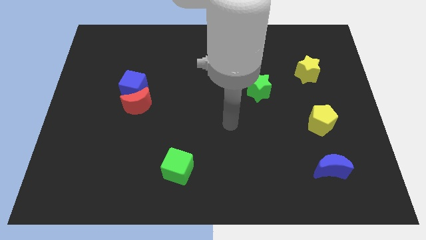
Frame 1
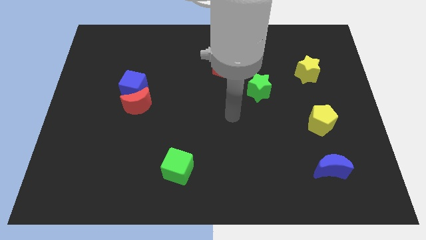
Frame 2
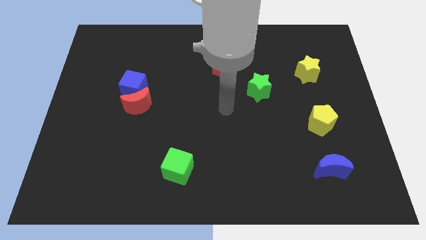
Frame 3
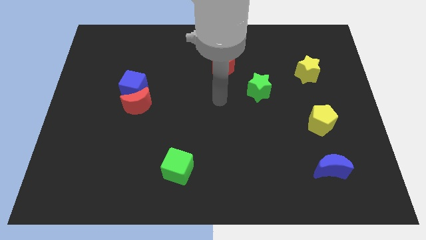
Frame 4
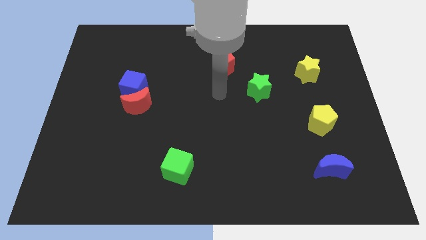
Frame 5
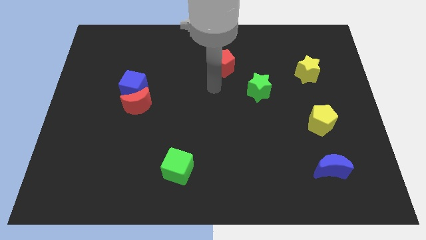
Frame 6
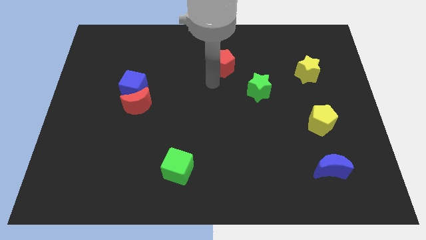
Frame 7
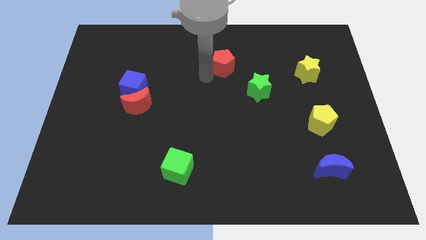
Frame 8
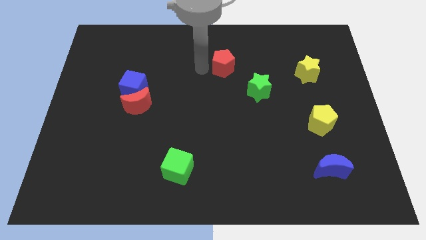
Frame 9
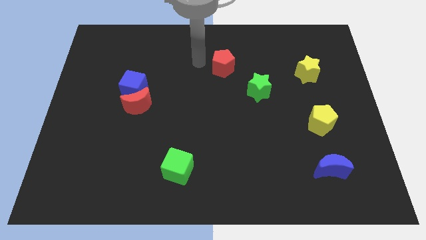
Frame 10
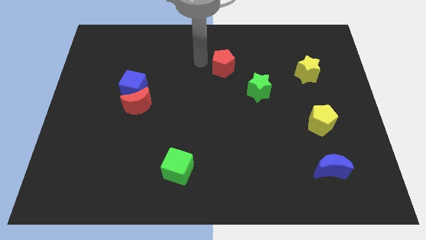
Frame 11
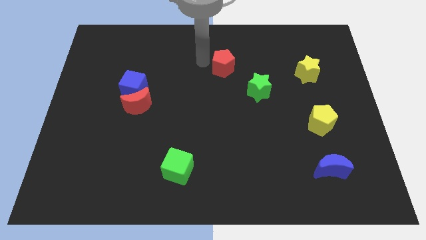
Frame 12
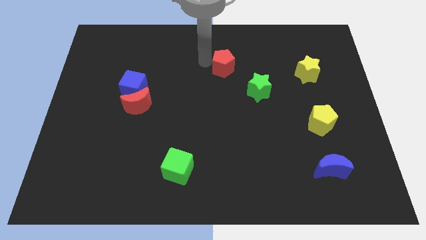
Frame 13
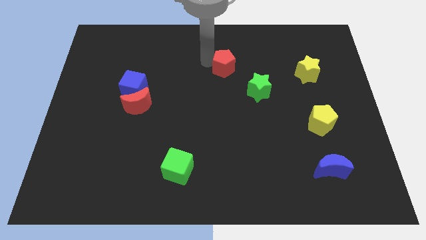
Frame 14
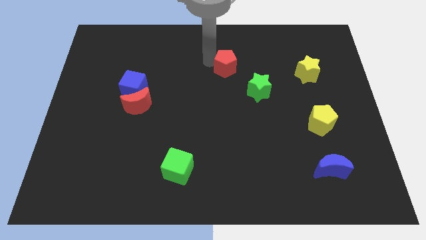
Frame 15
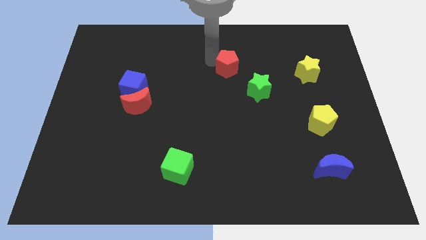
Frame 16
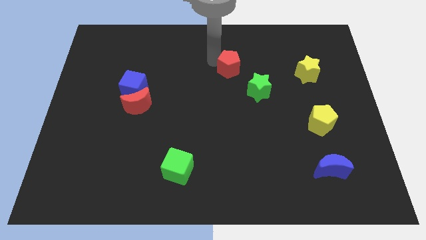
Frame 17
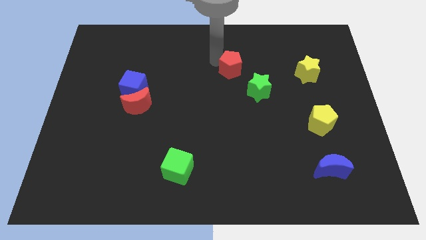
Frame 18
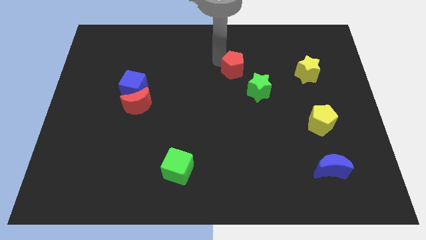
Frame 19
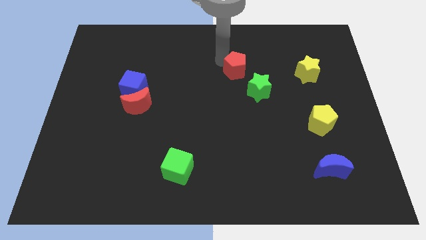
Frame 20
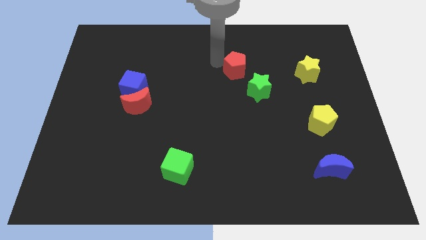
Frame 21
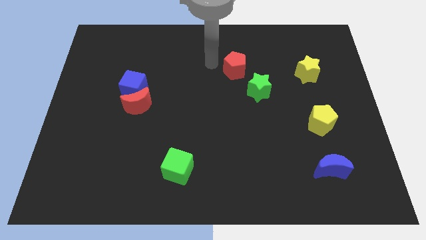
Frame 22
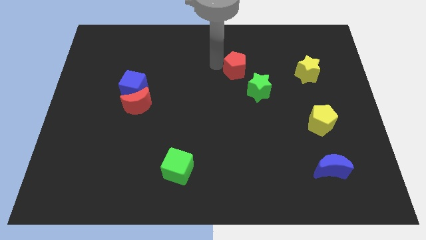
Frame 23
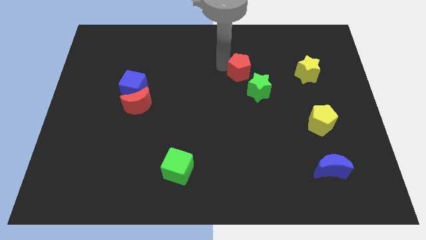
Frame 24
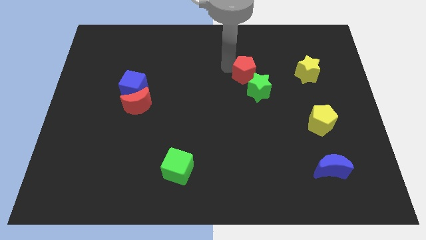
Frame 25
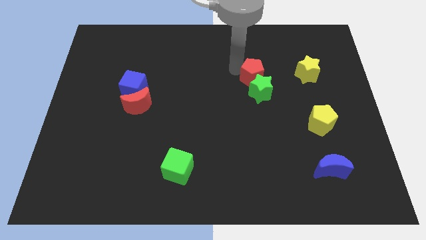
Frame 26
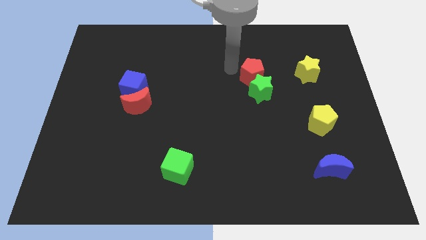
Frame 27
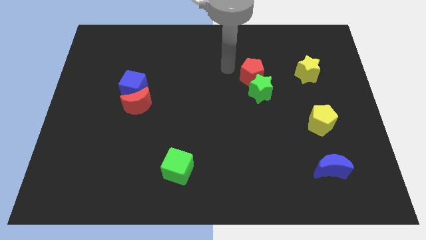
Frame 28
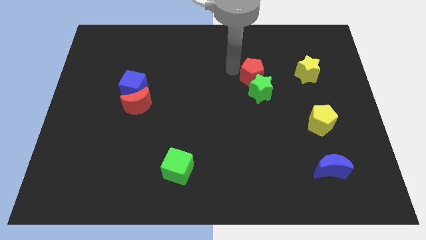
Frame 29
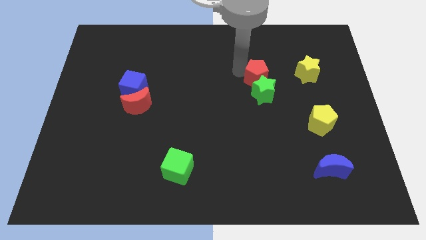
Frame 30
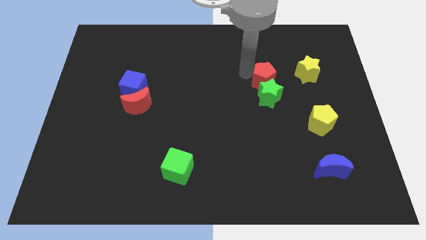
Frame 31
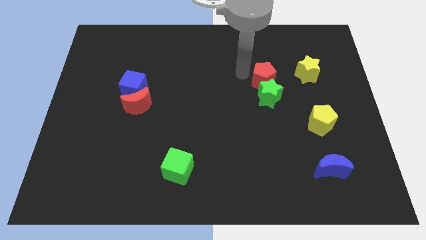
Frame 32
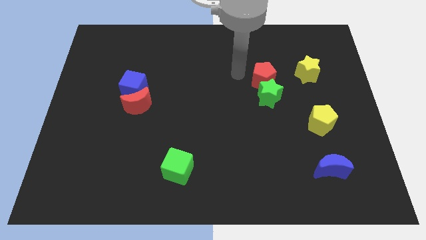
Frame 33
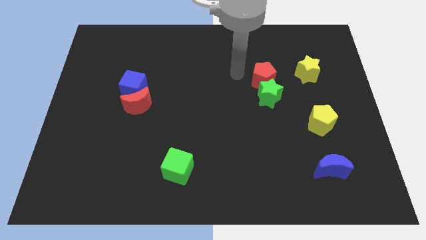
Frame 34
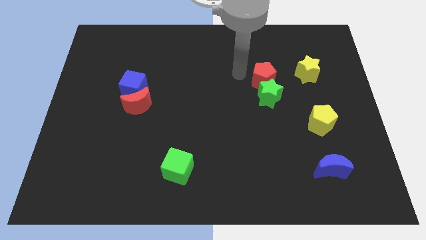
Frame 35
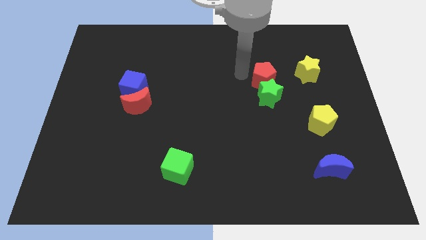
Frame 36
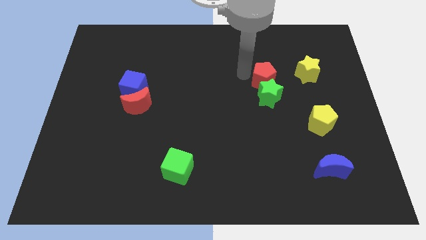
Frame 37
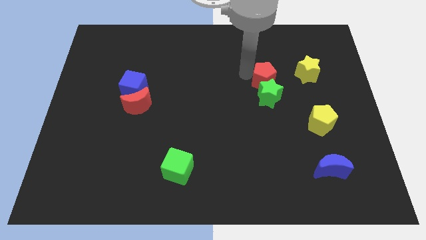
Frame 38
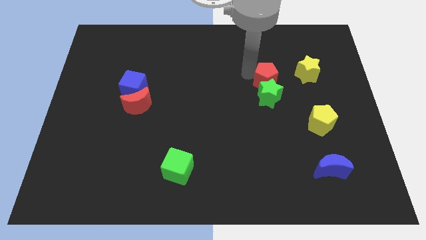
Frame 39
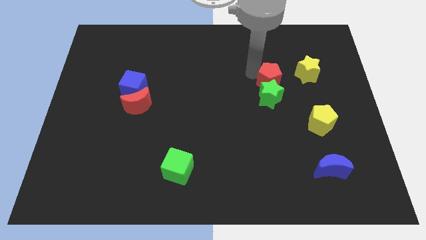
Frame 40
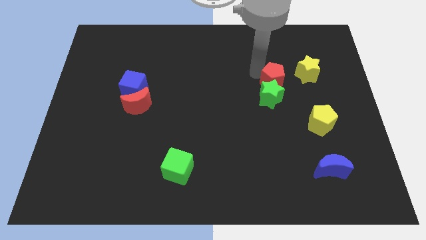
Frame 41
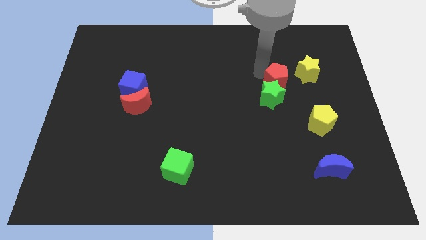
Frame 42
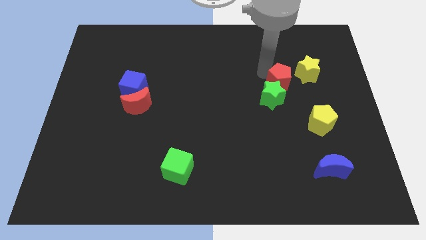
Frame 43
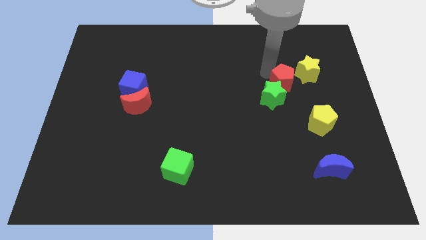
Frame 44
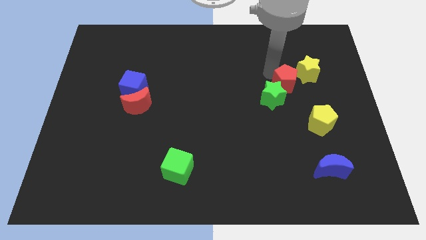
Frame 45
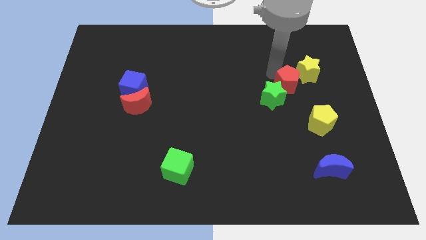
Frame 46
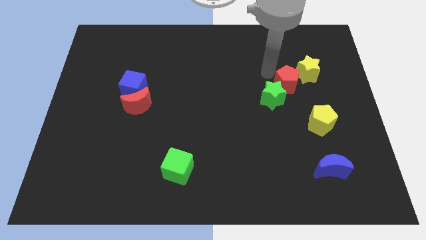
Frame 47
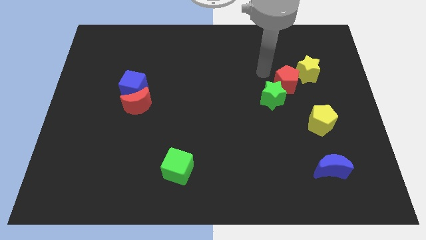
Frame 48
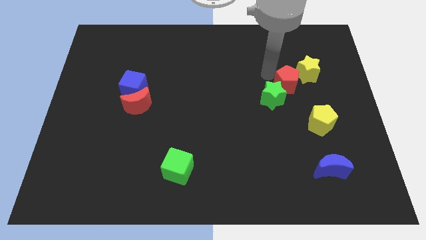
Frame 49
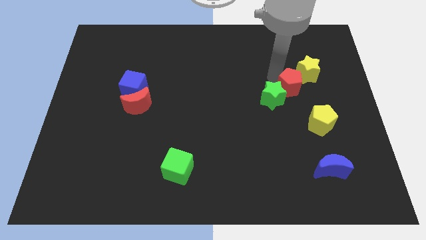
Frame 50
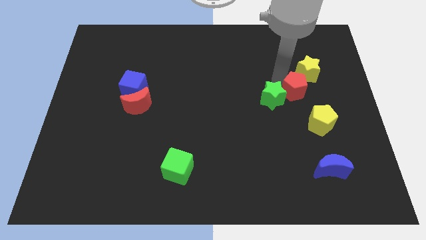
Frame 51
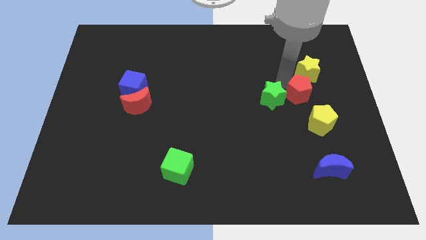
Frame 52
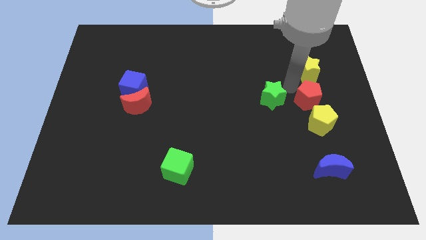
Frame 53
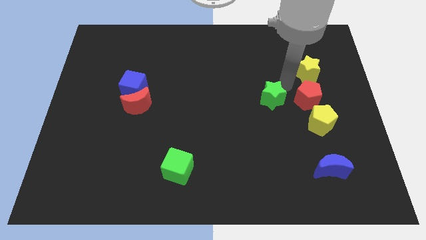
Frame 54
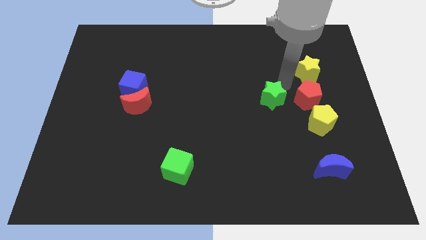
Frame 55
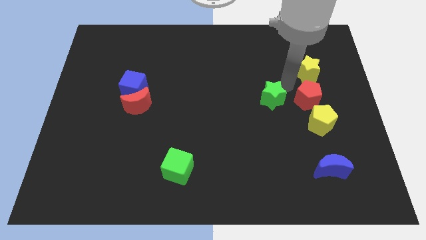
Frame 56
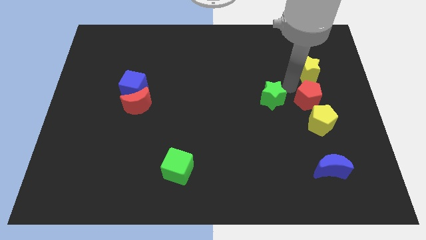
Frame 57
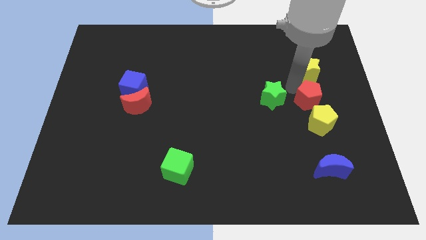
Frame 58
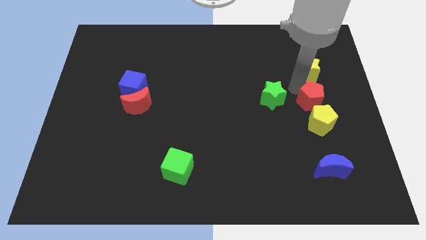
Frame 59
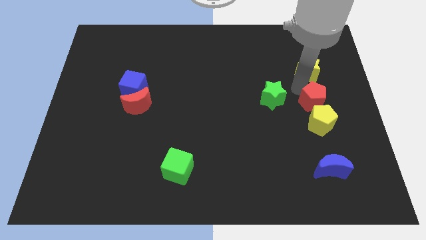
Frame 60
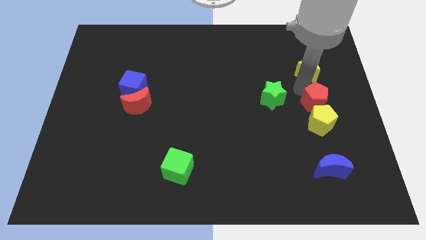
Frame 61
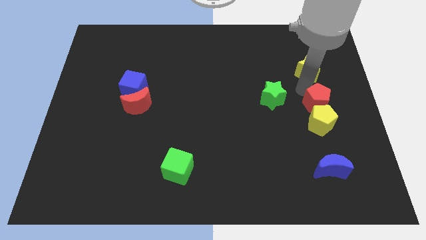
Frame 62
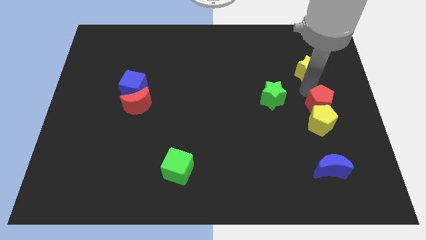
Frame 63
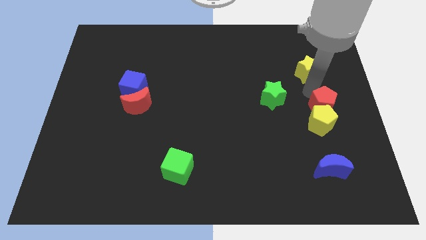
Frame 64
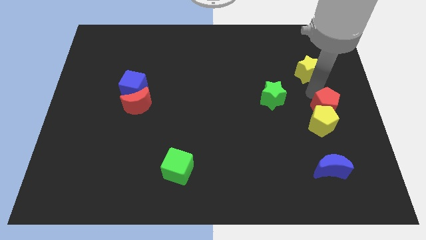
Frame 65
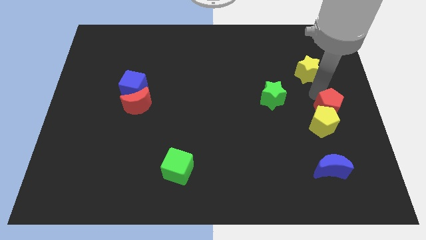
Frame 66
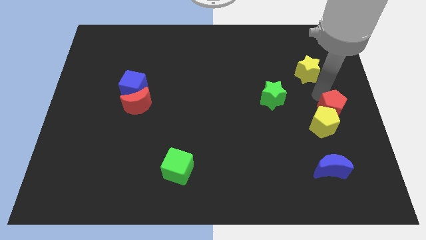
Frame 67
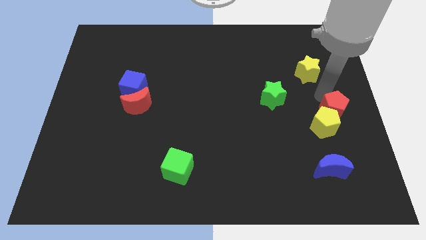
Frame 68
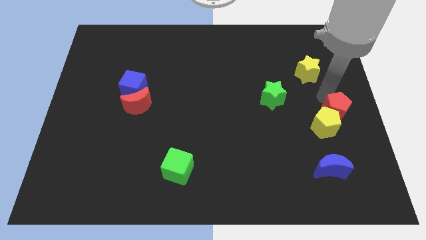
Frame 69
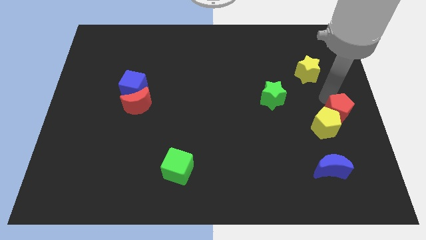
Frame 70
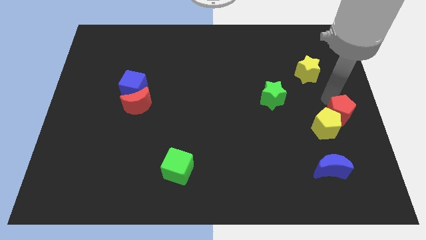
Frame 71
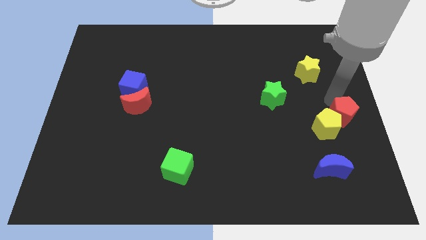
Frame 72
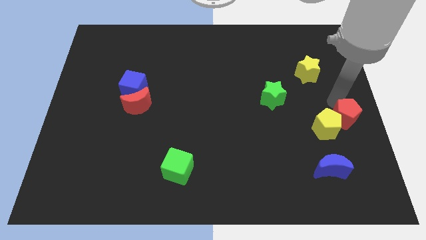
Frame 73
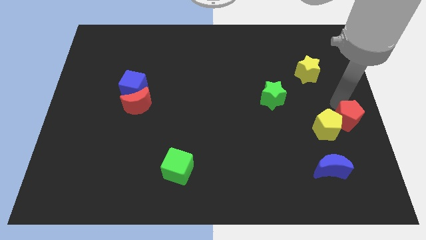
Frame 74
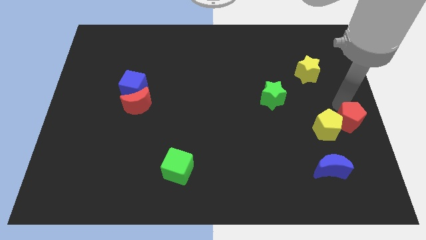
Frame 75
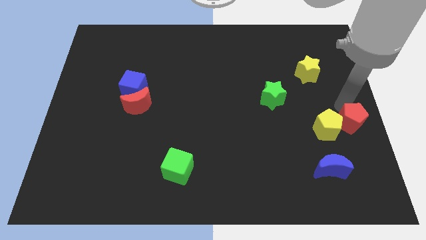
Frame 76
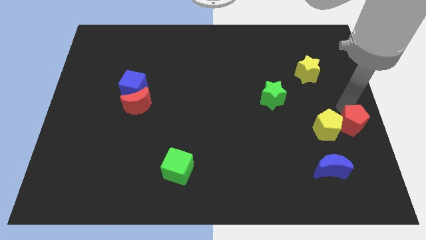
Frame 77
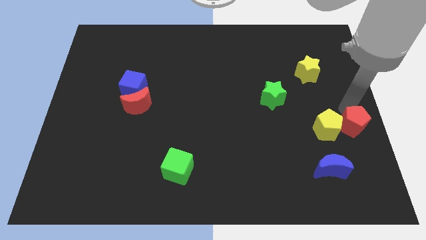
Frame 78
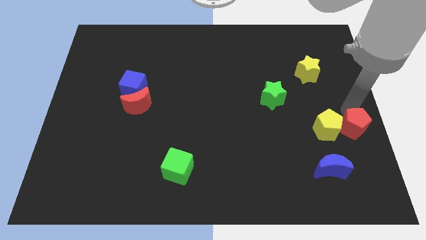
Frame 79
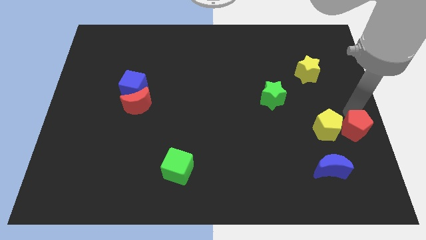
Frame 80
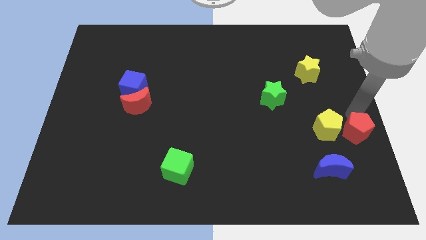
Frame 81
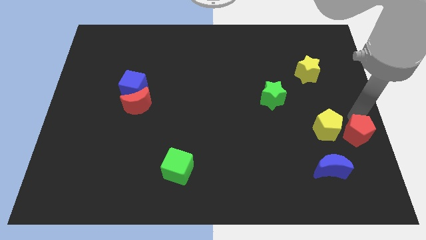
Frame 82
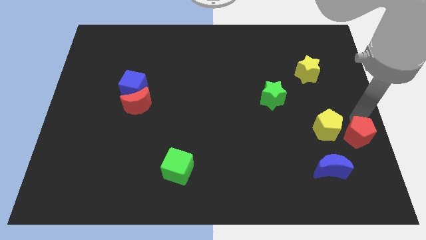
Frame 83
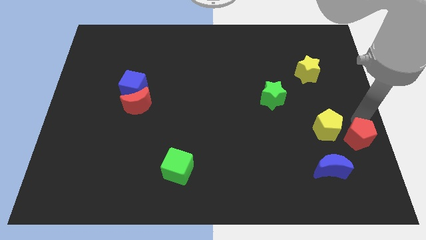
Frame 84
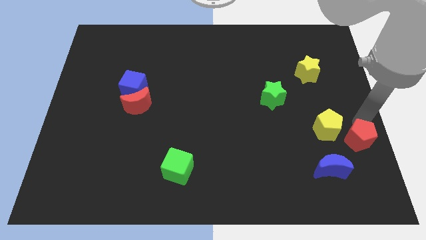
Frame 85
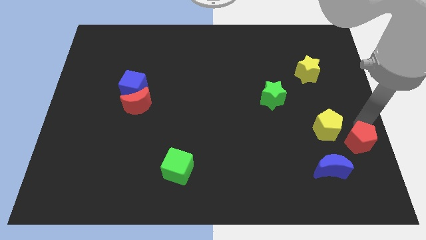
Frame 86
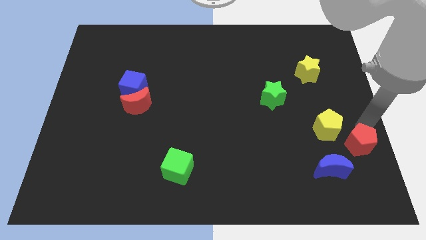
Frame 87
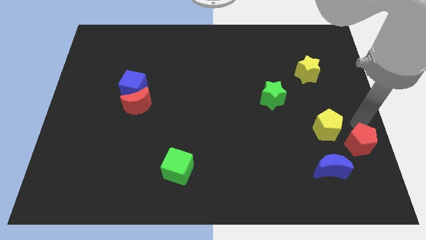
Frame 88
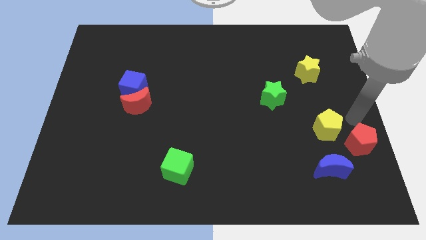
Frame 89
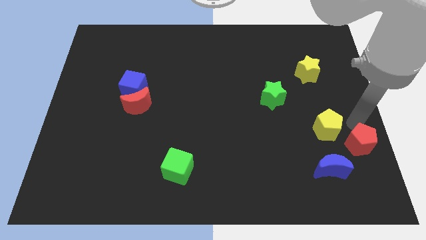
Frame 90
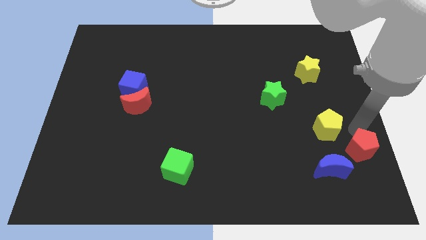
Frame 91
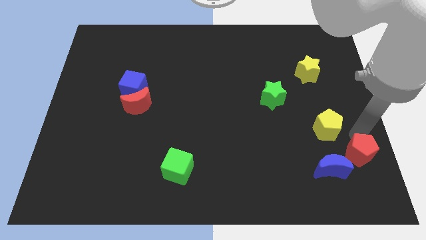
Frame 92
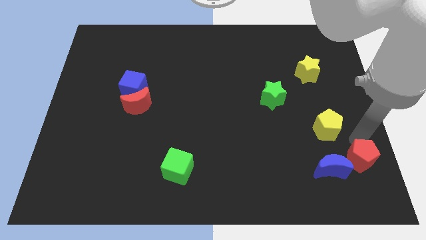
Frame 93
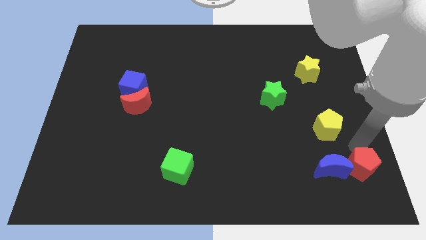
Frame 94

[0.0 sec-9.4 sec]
push the red pentagon to the bottom right
